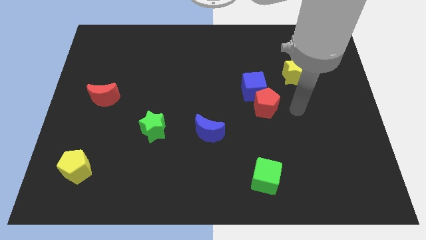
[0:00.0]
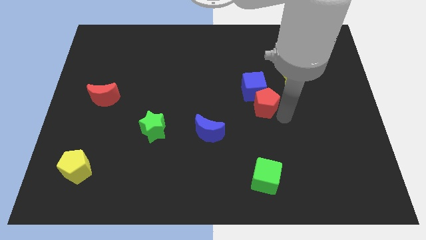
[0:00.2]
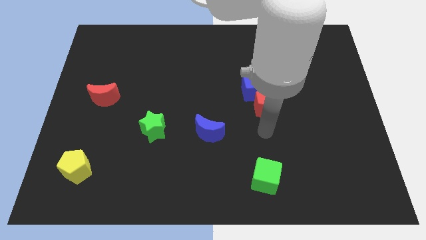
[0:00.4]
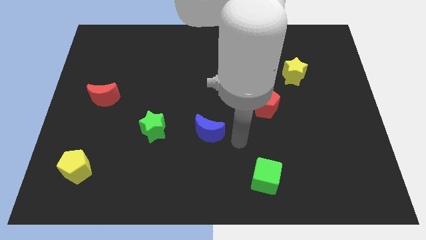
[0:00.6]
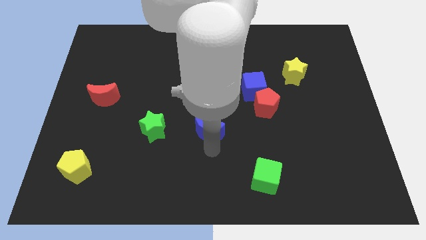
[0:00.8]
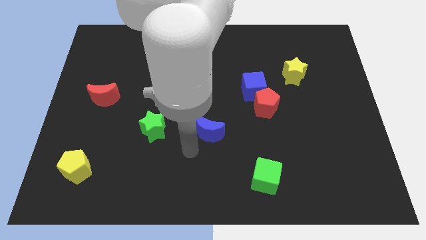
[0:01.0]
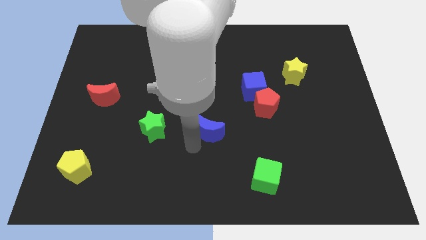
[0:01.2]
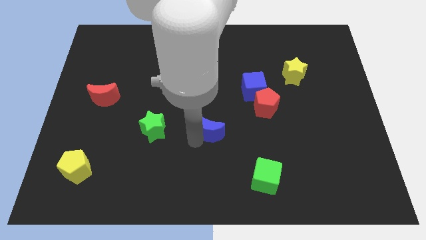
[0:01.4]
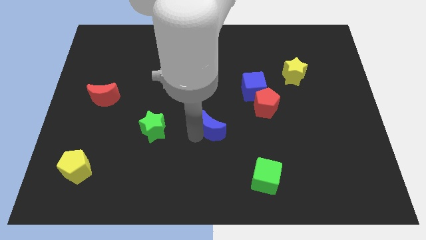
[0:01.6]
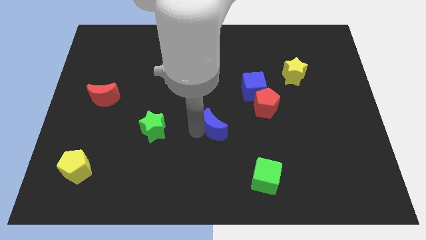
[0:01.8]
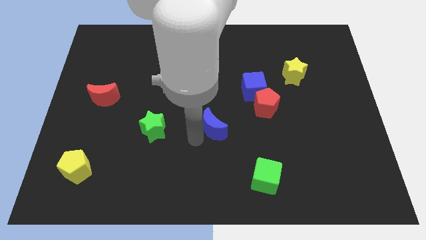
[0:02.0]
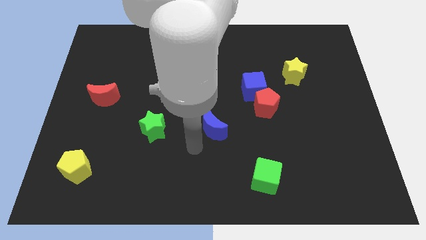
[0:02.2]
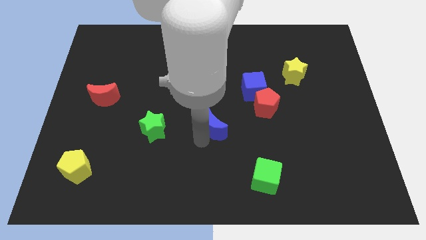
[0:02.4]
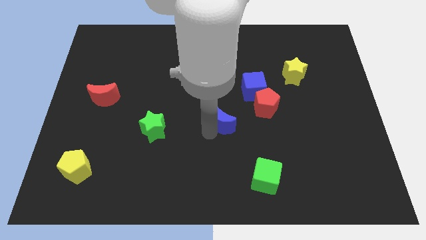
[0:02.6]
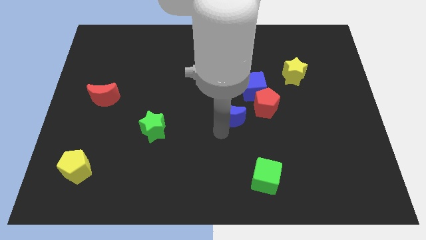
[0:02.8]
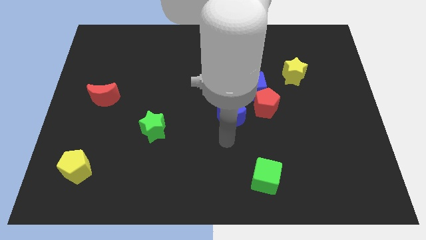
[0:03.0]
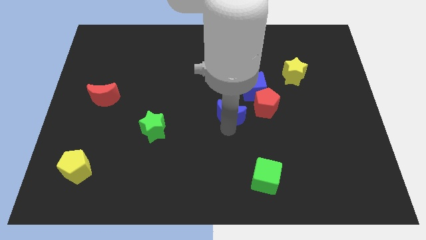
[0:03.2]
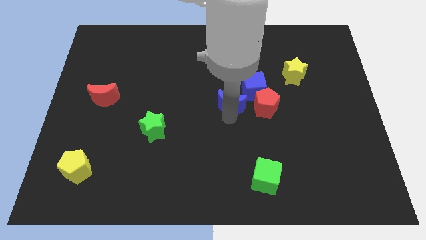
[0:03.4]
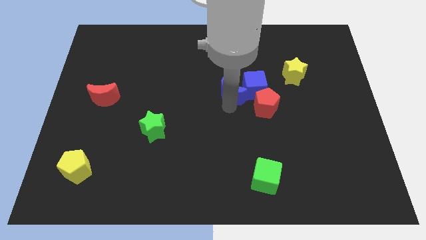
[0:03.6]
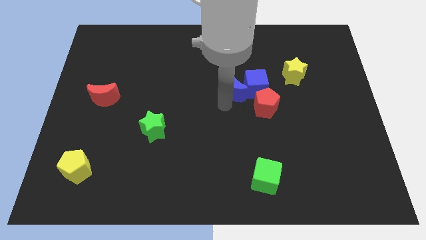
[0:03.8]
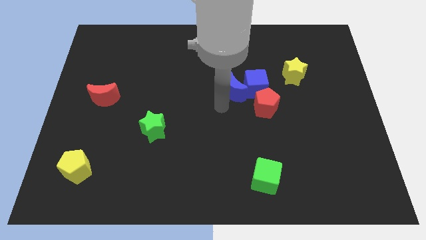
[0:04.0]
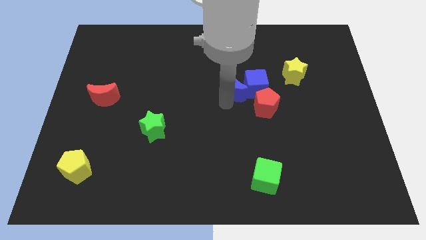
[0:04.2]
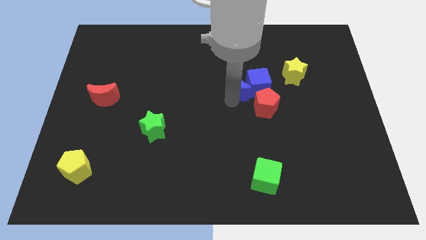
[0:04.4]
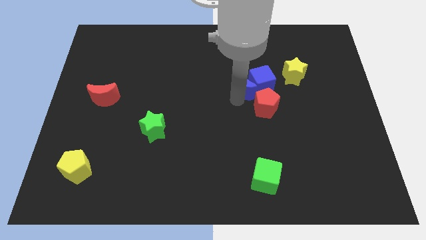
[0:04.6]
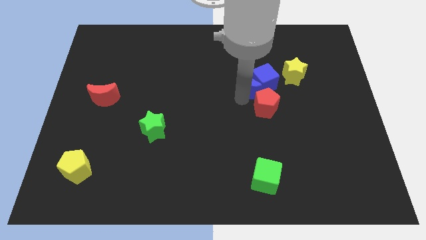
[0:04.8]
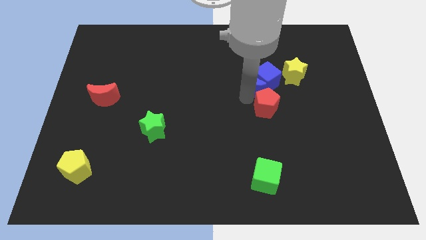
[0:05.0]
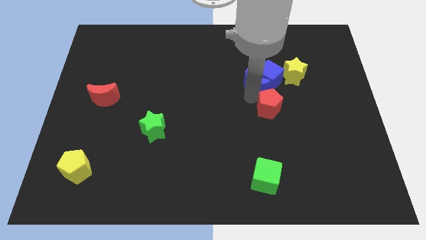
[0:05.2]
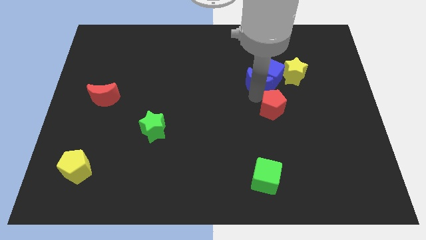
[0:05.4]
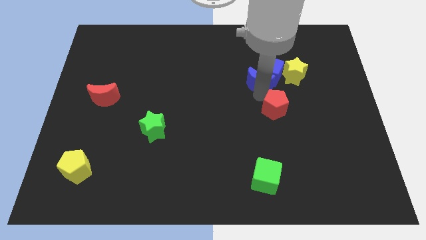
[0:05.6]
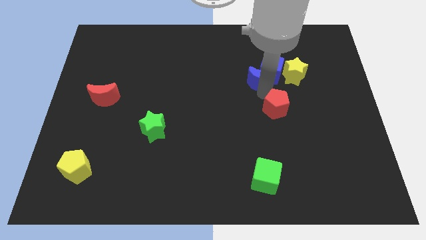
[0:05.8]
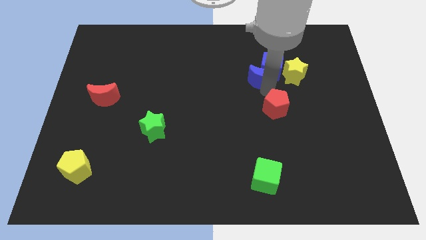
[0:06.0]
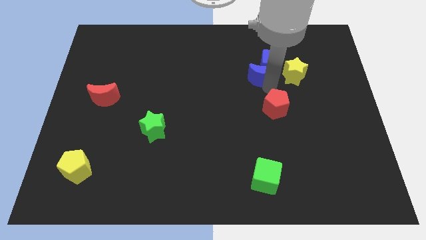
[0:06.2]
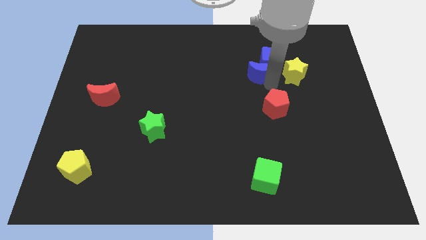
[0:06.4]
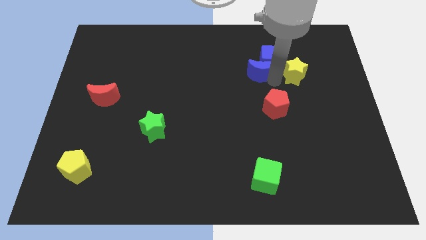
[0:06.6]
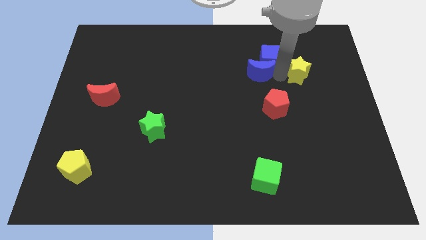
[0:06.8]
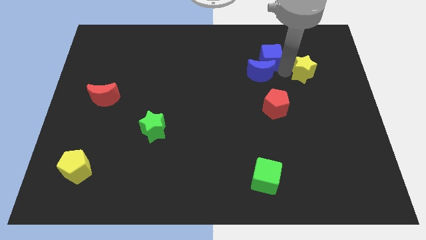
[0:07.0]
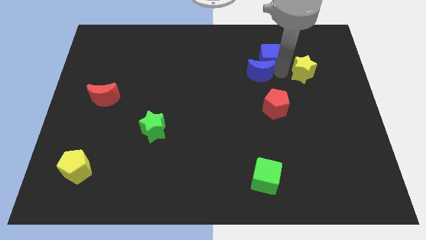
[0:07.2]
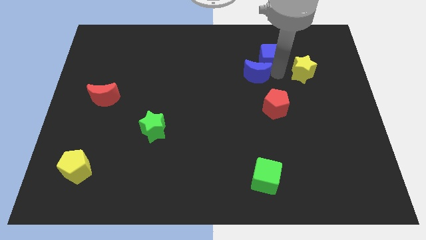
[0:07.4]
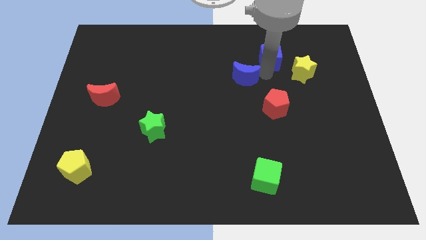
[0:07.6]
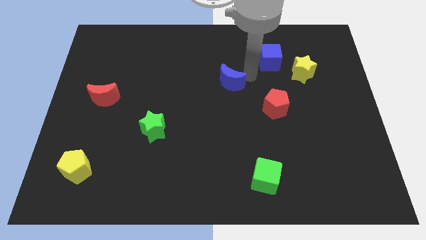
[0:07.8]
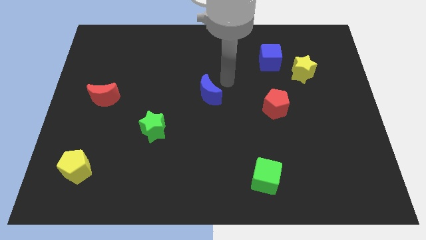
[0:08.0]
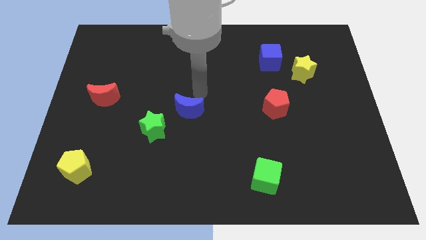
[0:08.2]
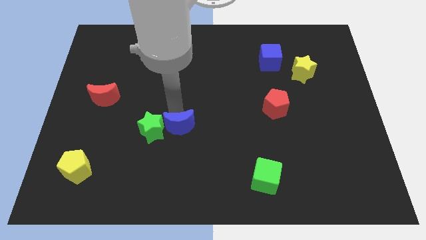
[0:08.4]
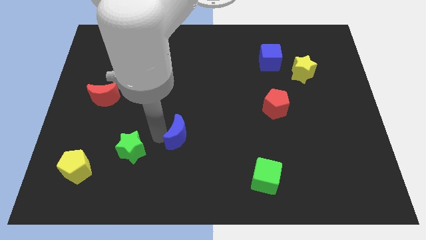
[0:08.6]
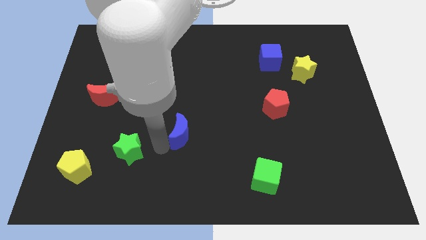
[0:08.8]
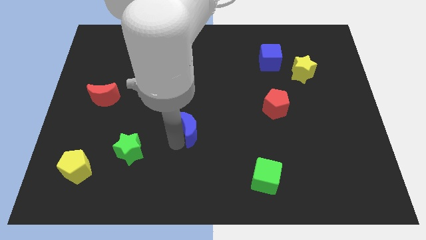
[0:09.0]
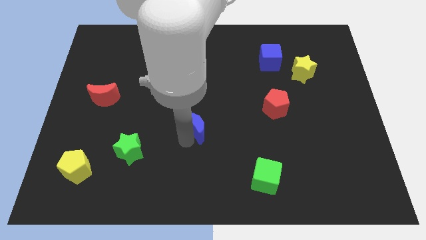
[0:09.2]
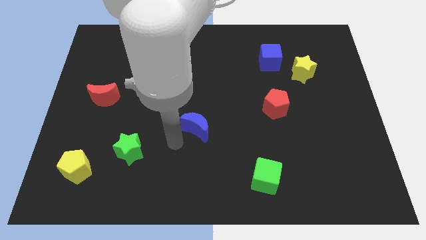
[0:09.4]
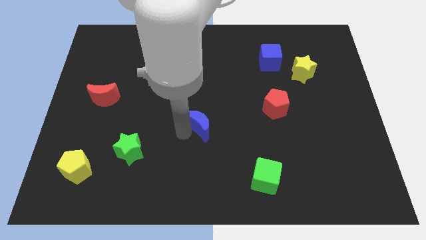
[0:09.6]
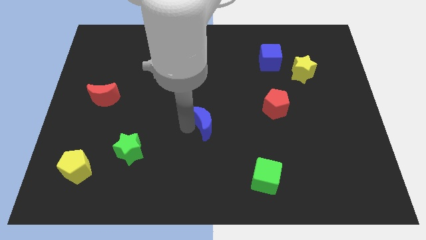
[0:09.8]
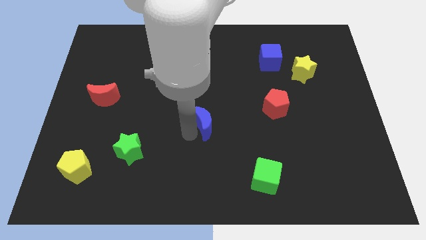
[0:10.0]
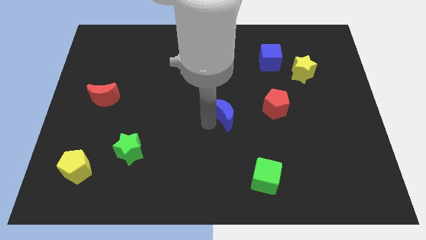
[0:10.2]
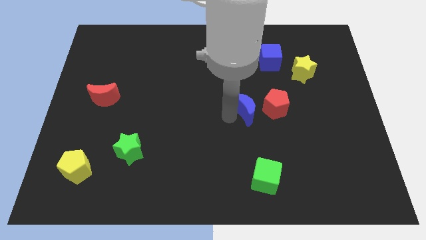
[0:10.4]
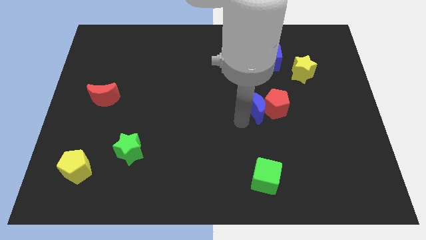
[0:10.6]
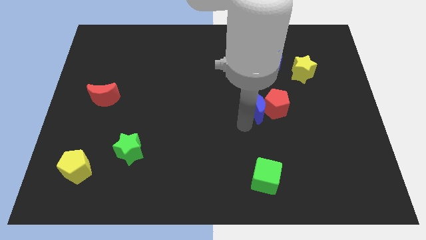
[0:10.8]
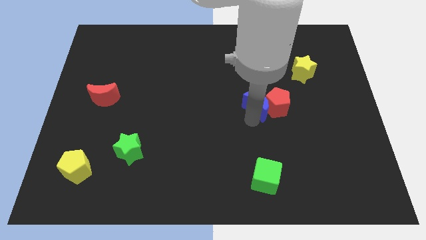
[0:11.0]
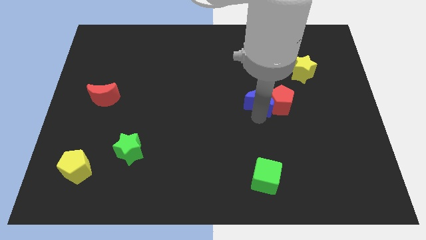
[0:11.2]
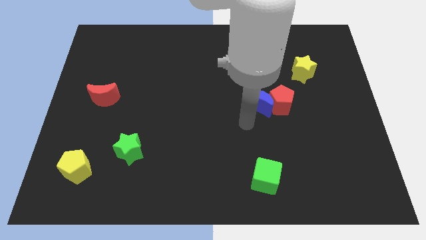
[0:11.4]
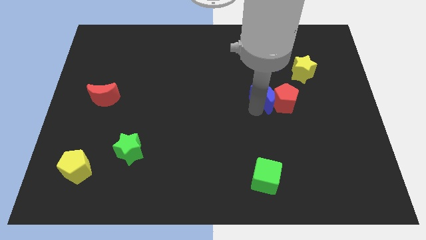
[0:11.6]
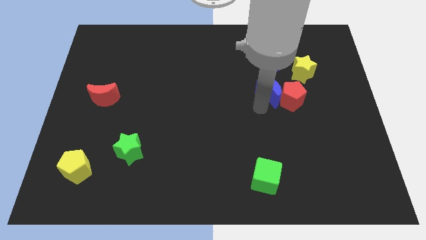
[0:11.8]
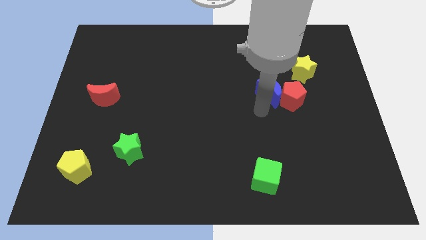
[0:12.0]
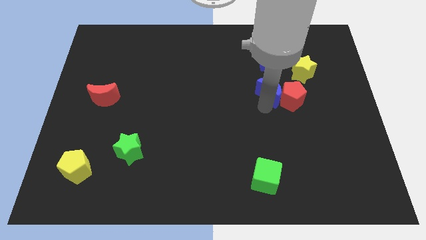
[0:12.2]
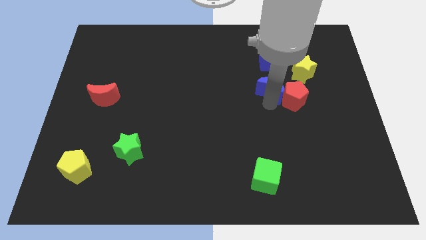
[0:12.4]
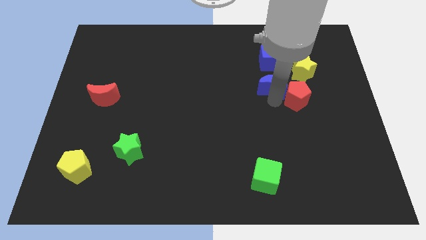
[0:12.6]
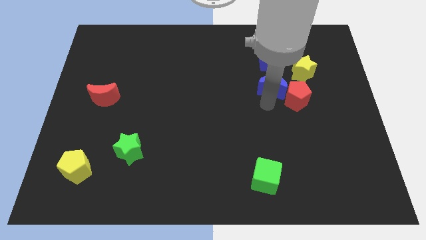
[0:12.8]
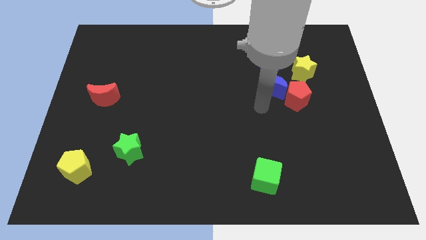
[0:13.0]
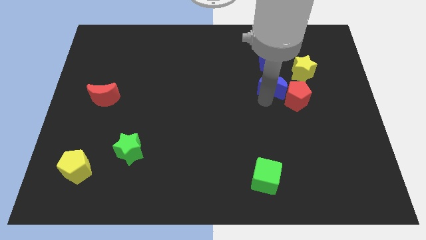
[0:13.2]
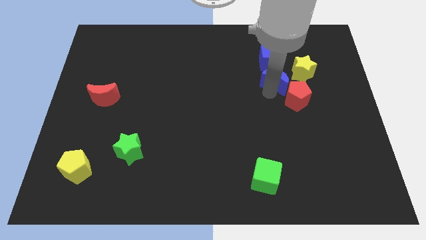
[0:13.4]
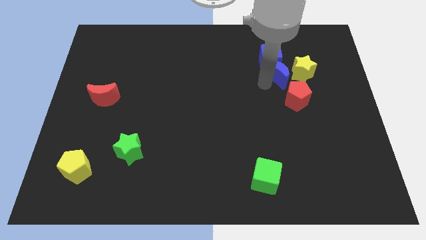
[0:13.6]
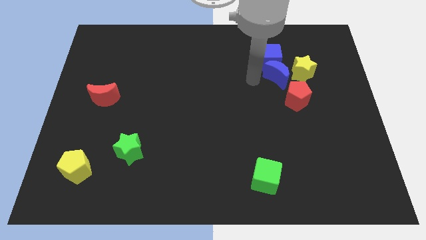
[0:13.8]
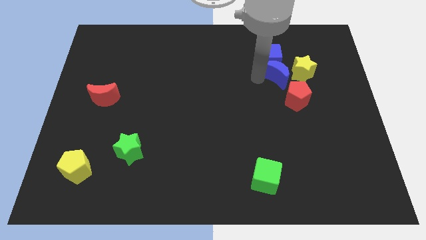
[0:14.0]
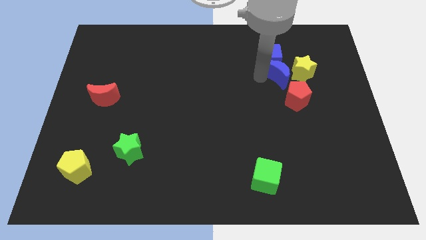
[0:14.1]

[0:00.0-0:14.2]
move the blue moon to the yellow star

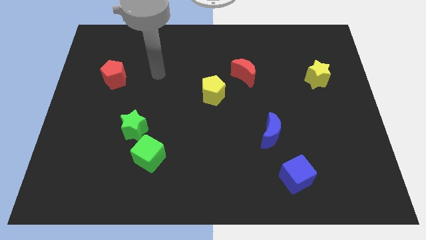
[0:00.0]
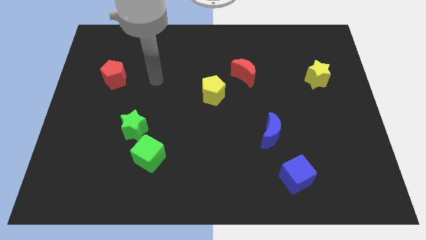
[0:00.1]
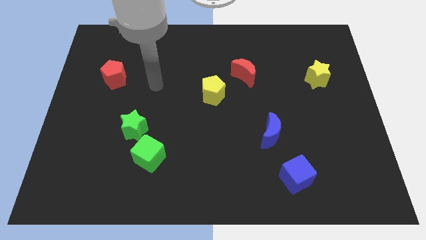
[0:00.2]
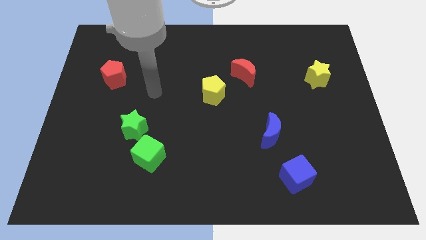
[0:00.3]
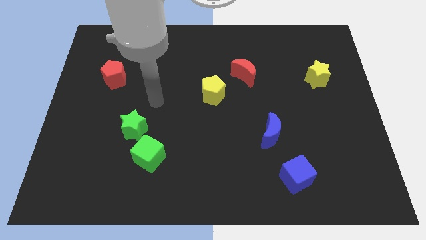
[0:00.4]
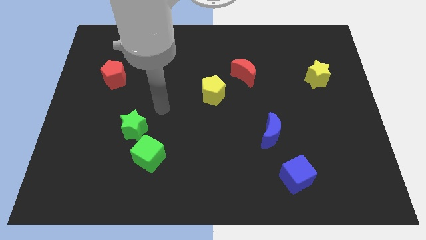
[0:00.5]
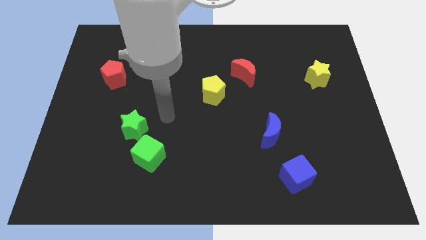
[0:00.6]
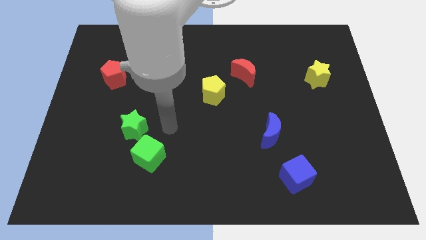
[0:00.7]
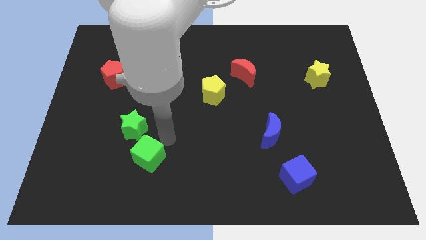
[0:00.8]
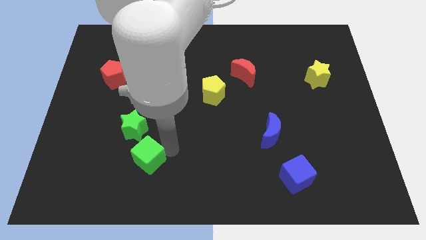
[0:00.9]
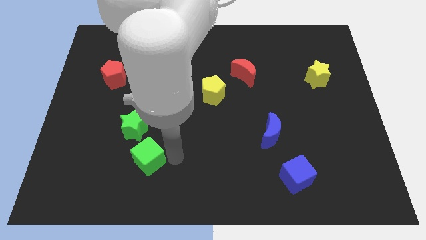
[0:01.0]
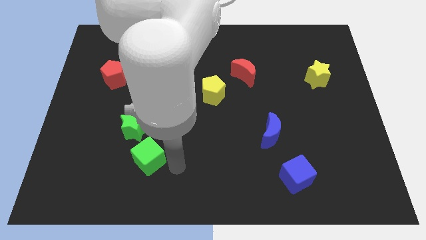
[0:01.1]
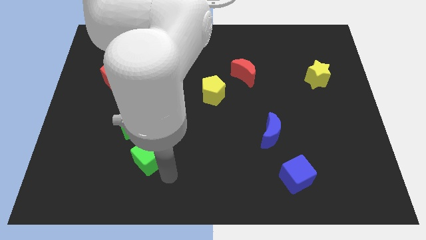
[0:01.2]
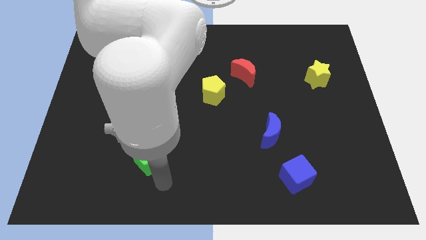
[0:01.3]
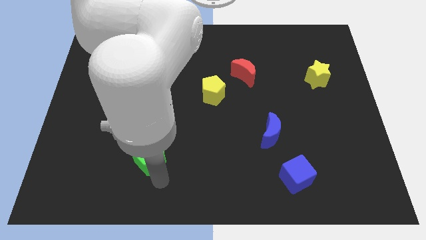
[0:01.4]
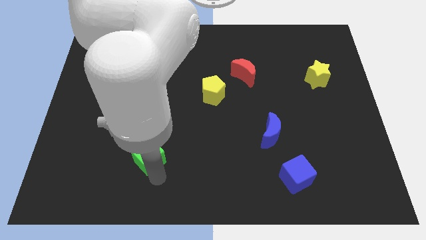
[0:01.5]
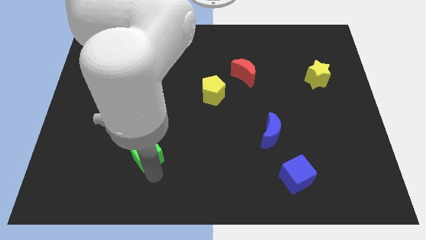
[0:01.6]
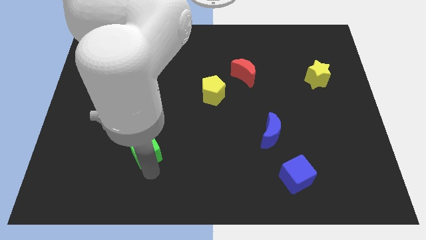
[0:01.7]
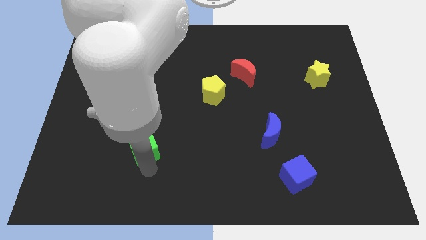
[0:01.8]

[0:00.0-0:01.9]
move the green cube towards the green star
